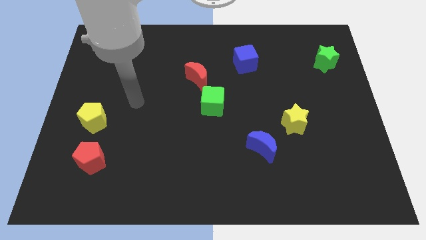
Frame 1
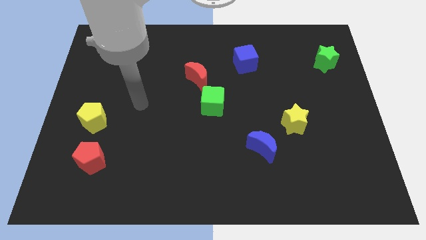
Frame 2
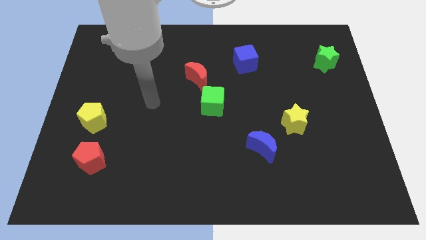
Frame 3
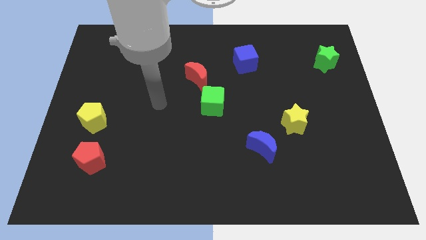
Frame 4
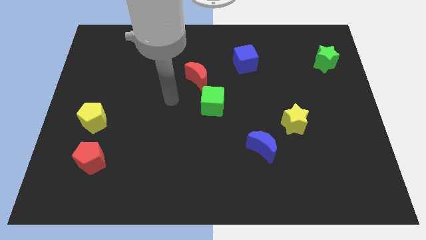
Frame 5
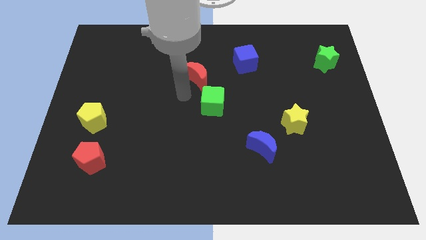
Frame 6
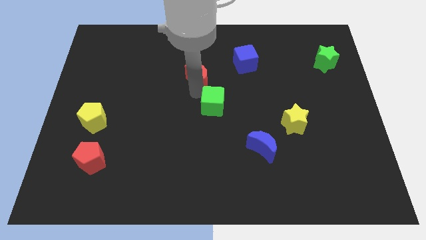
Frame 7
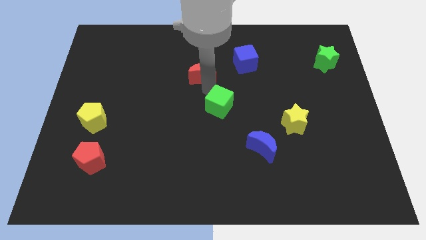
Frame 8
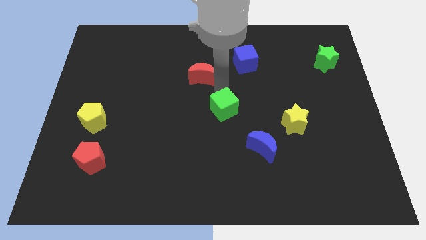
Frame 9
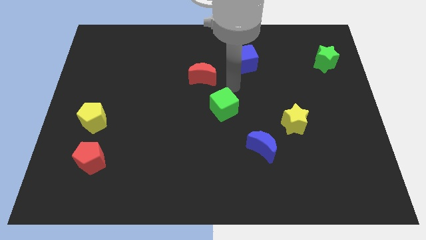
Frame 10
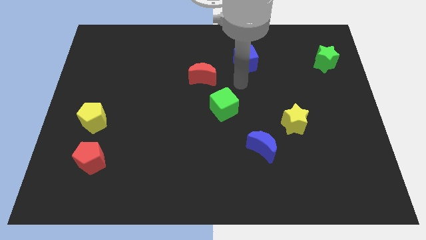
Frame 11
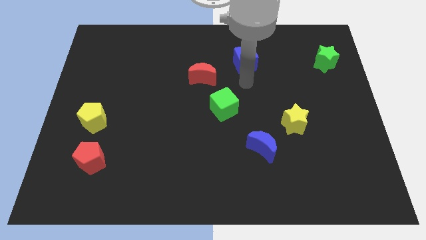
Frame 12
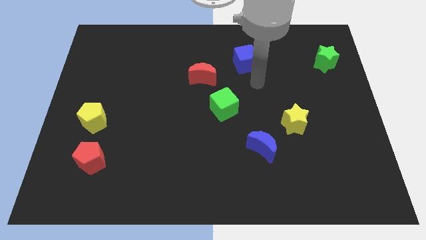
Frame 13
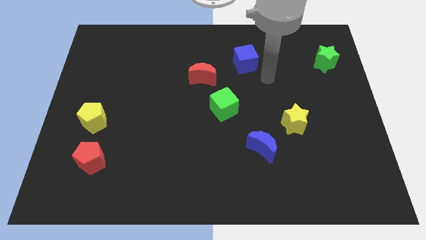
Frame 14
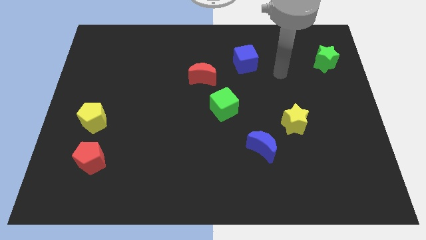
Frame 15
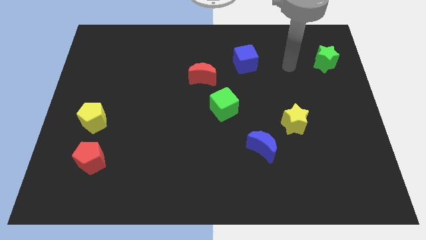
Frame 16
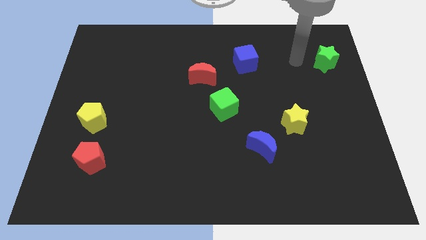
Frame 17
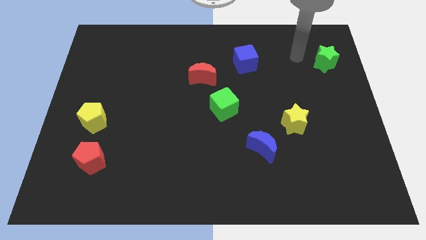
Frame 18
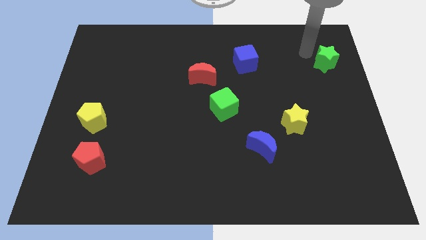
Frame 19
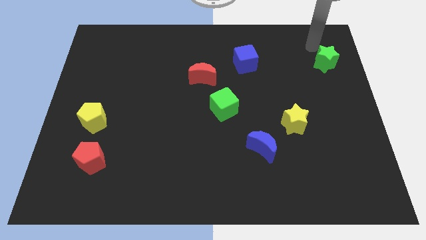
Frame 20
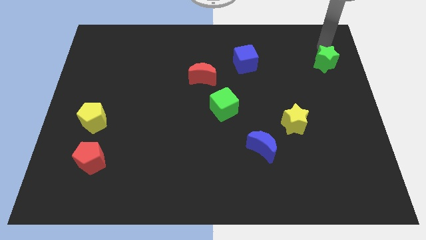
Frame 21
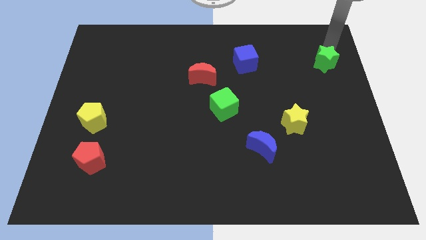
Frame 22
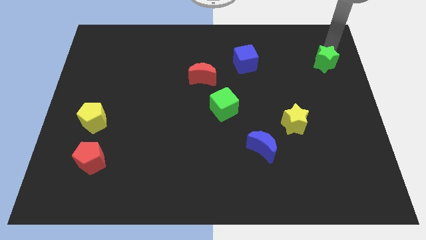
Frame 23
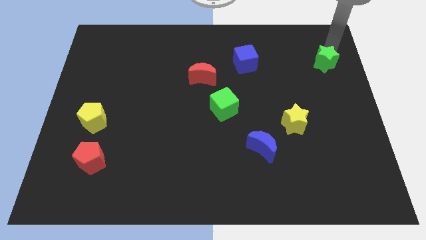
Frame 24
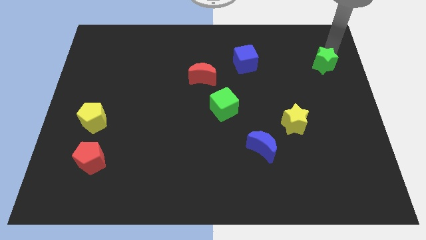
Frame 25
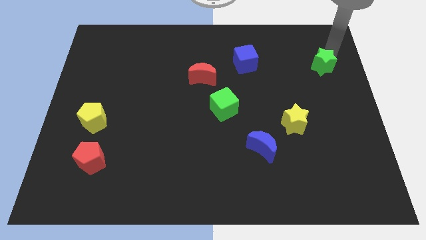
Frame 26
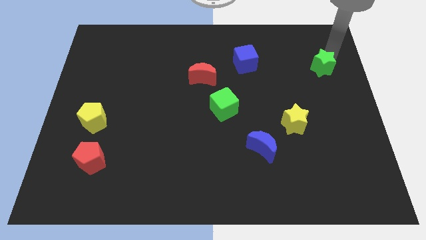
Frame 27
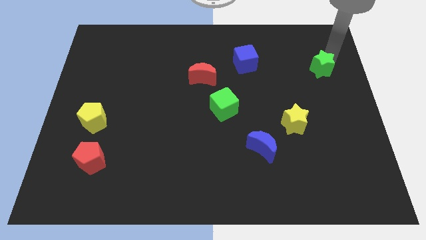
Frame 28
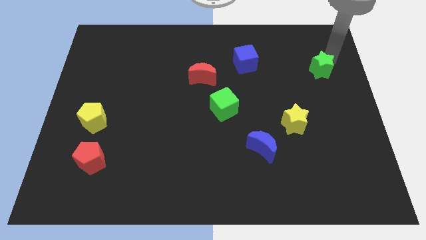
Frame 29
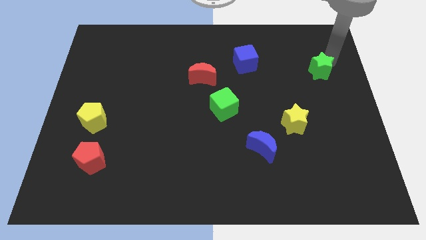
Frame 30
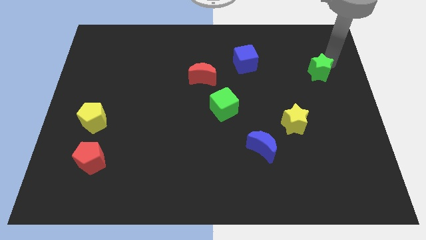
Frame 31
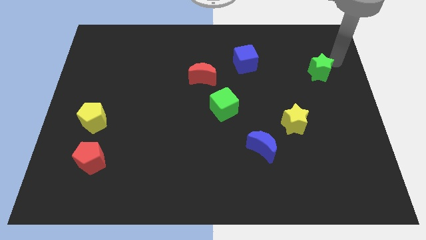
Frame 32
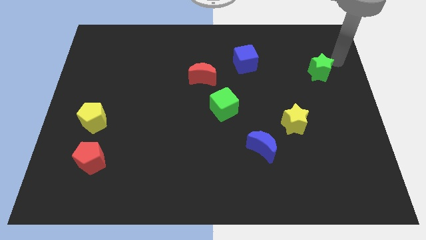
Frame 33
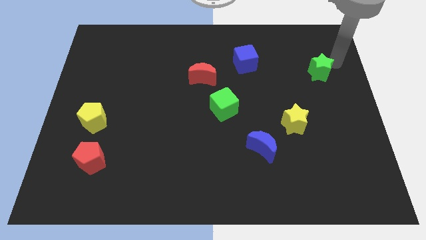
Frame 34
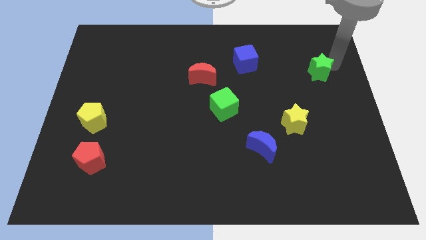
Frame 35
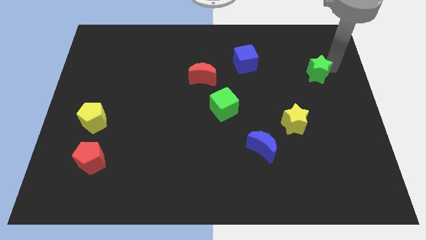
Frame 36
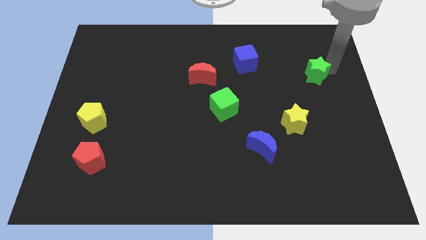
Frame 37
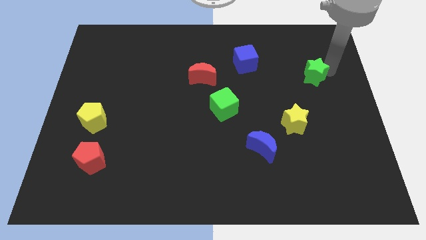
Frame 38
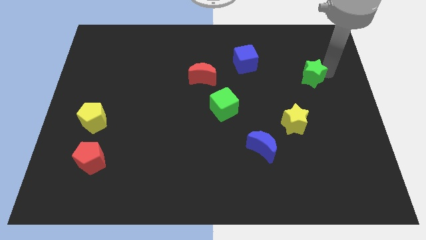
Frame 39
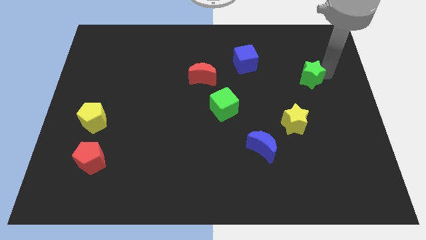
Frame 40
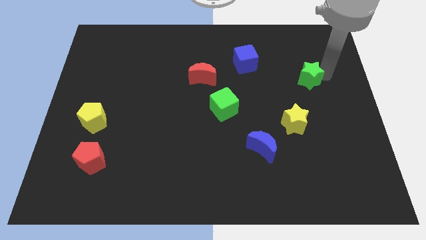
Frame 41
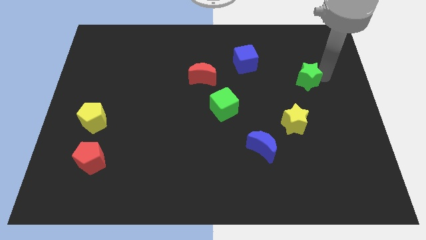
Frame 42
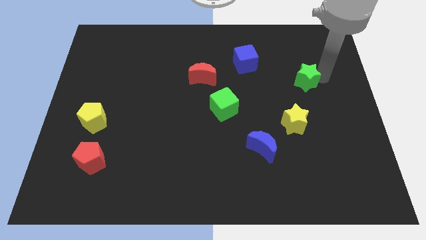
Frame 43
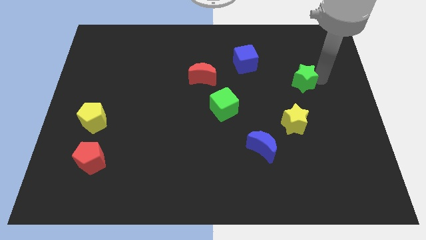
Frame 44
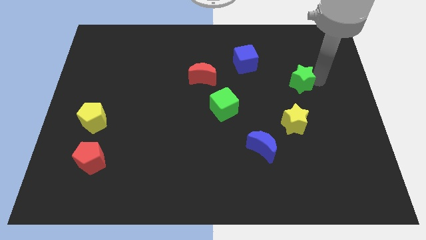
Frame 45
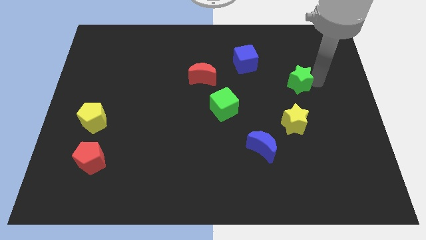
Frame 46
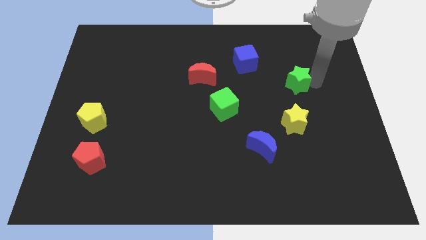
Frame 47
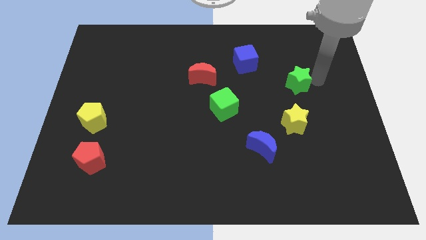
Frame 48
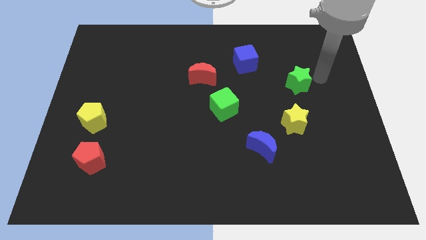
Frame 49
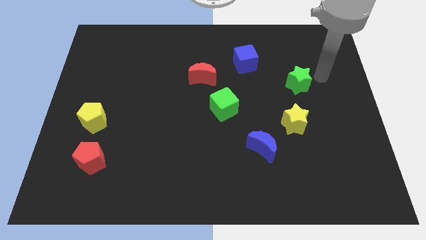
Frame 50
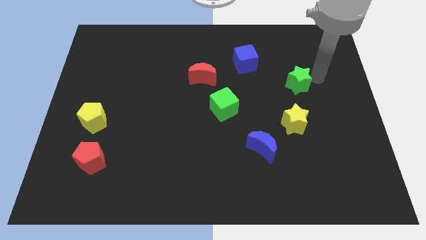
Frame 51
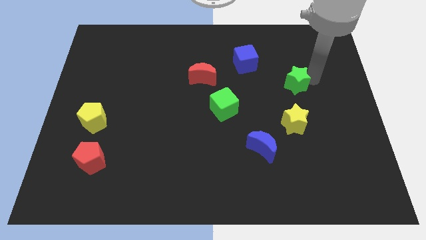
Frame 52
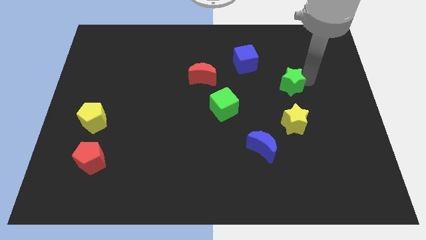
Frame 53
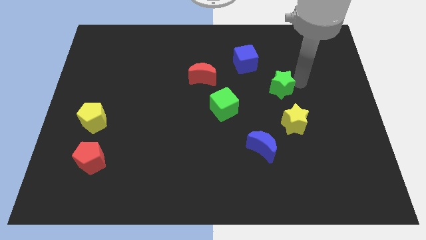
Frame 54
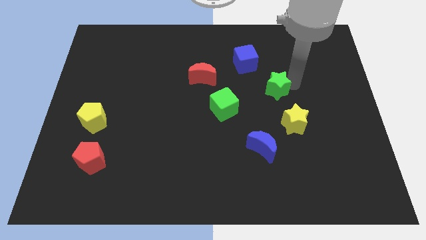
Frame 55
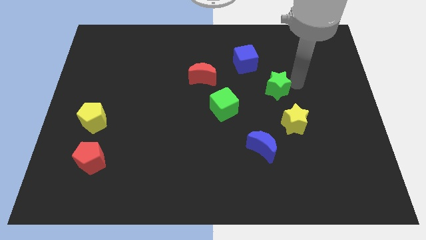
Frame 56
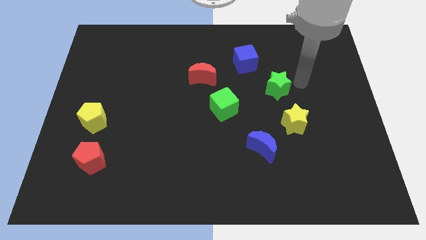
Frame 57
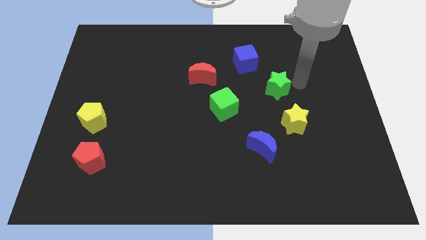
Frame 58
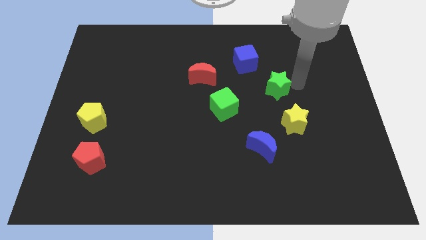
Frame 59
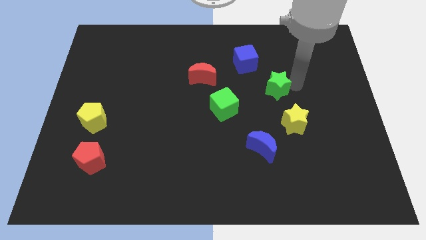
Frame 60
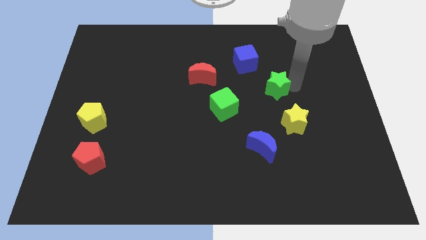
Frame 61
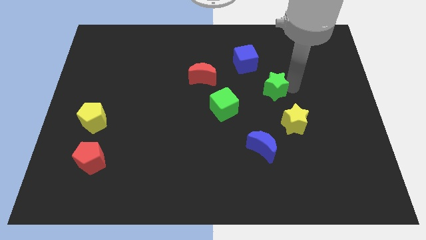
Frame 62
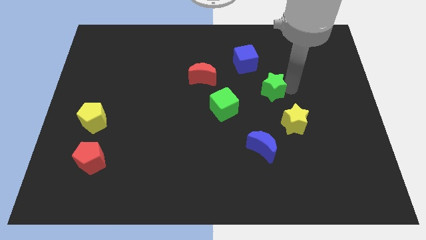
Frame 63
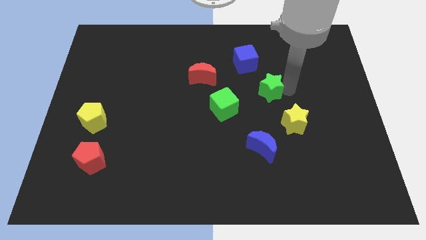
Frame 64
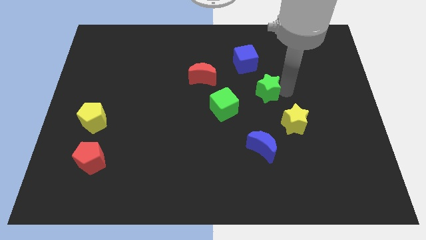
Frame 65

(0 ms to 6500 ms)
move the green star to the bottom side of the blue cube

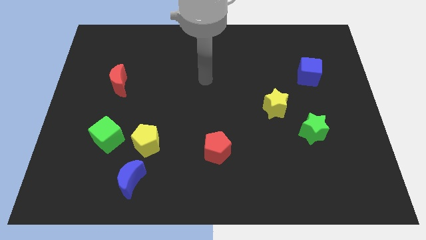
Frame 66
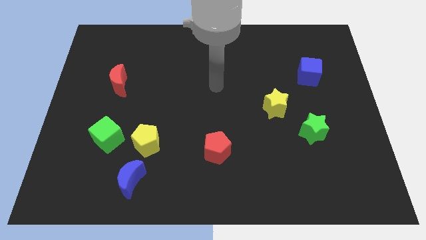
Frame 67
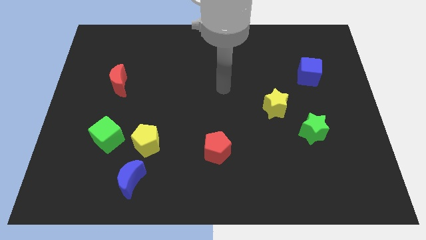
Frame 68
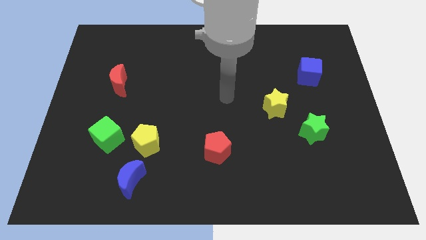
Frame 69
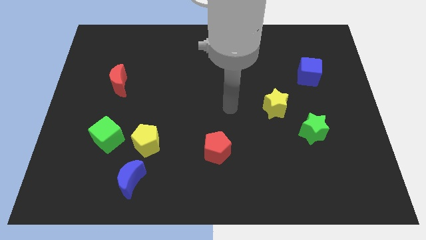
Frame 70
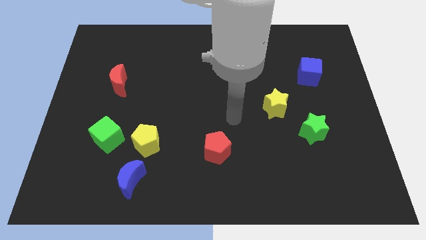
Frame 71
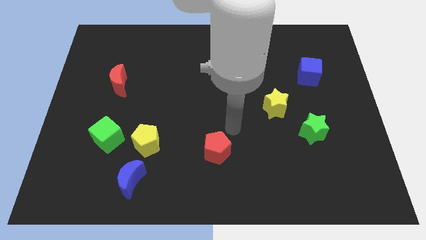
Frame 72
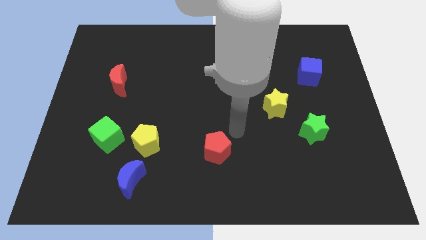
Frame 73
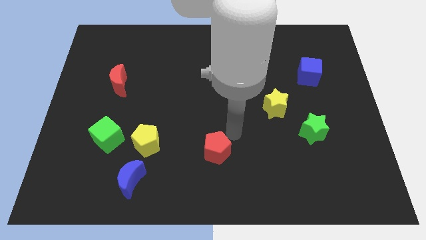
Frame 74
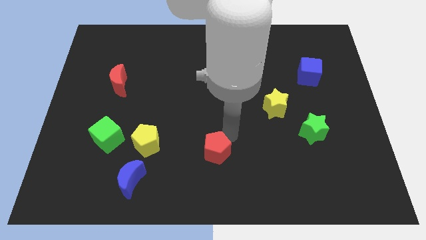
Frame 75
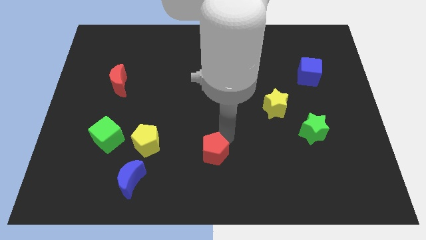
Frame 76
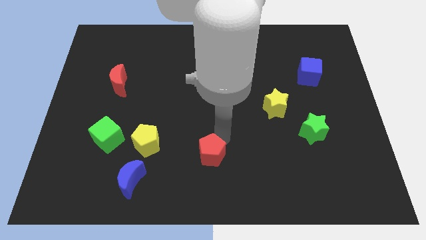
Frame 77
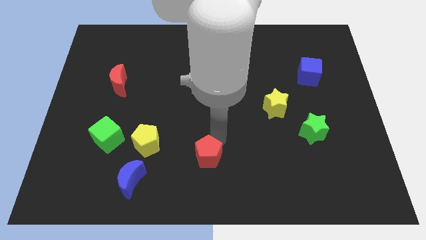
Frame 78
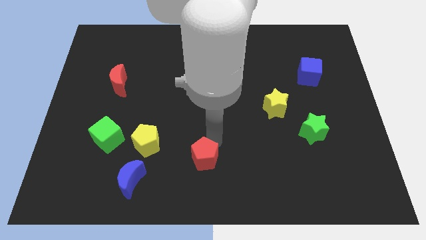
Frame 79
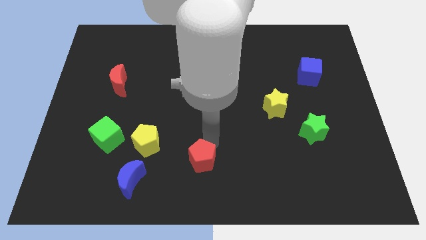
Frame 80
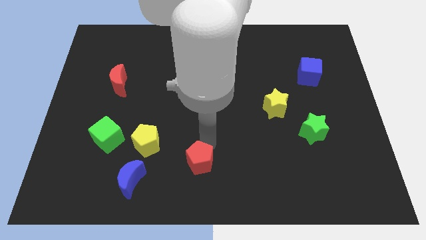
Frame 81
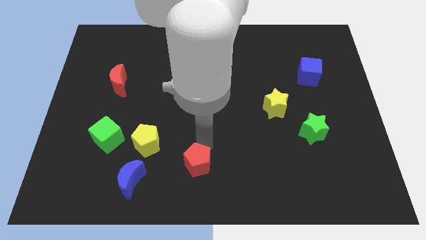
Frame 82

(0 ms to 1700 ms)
move the red pentagon right of the blue moon
